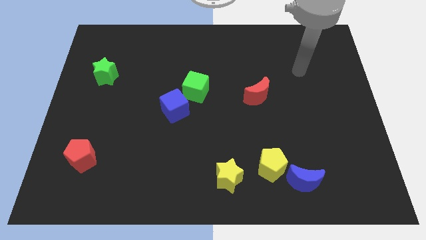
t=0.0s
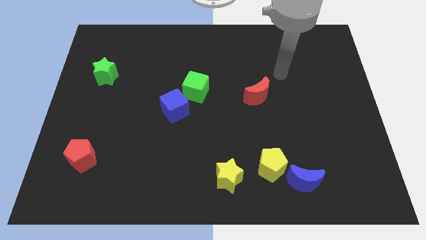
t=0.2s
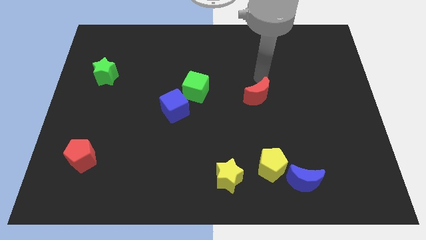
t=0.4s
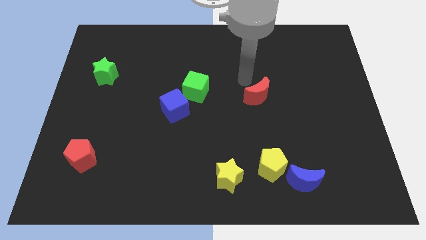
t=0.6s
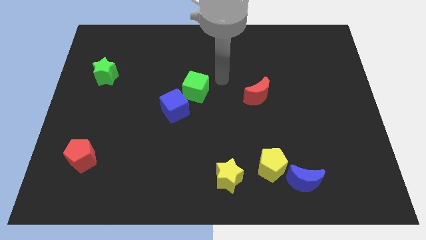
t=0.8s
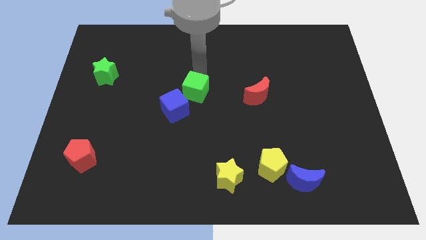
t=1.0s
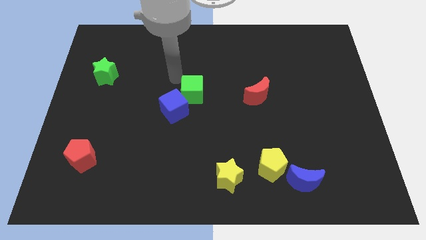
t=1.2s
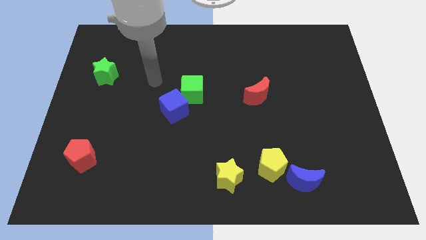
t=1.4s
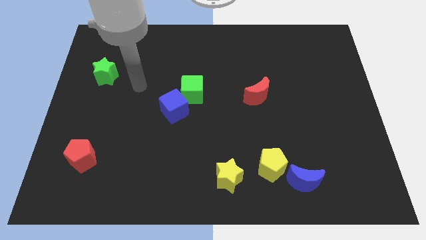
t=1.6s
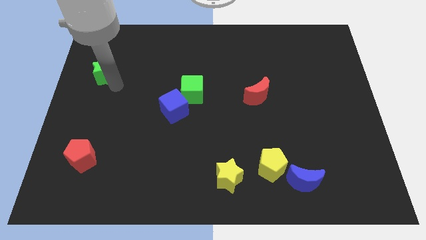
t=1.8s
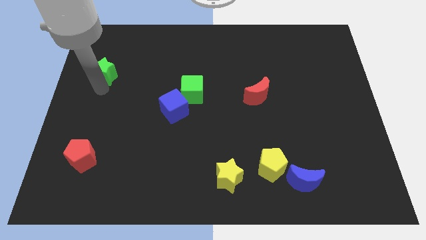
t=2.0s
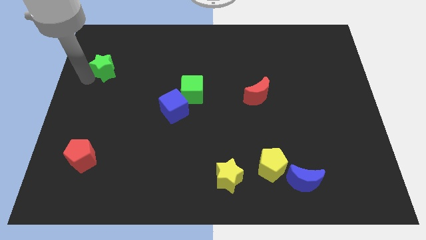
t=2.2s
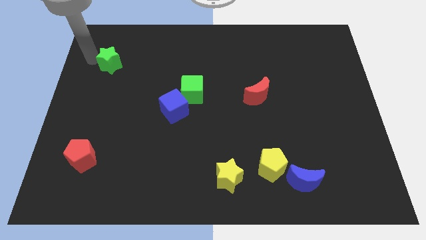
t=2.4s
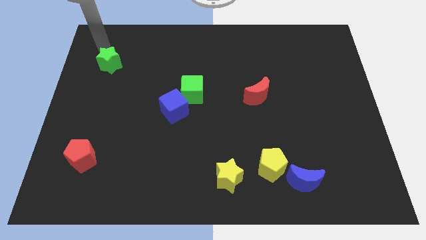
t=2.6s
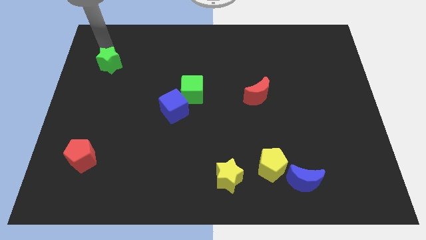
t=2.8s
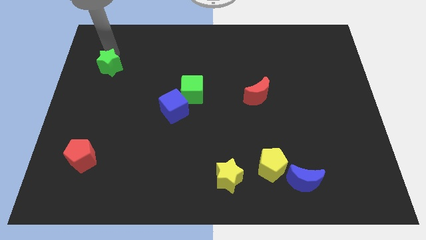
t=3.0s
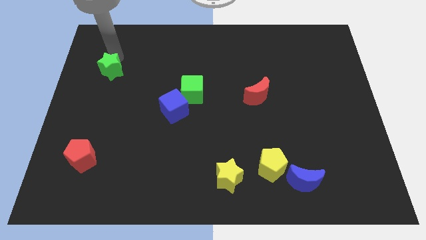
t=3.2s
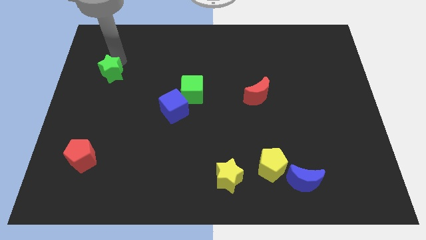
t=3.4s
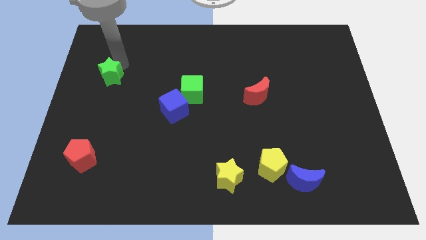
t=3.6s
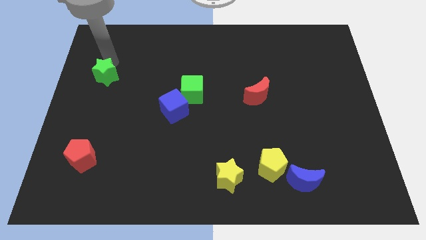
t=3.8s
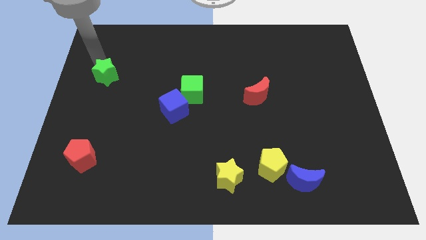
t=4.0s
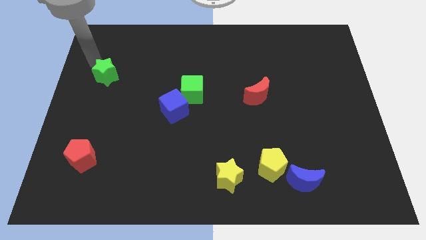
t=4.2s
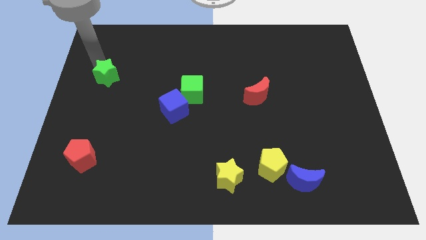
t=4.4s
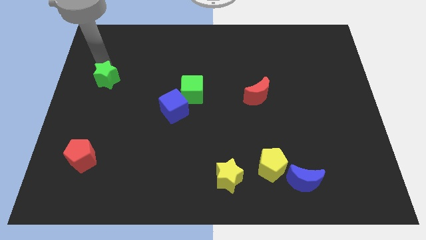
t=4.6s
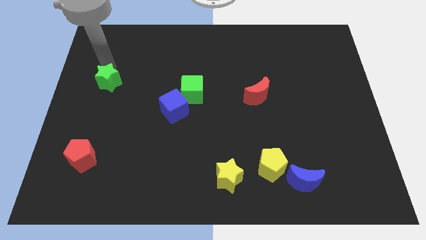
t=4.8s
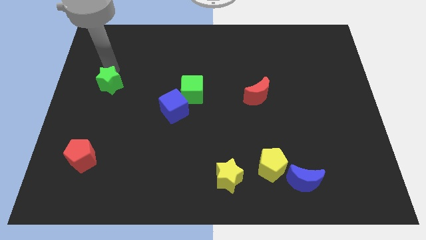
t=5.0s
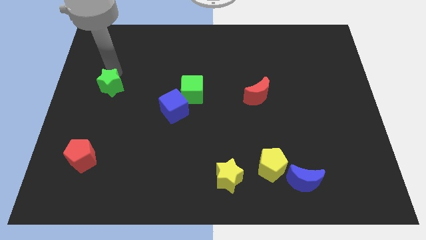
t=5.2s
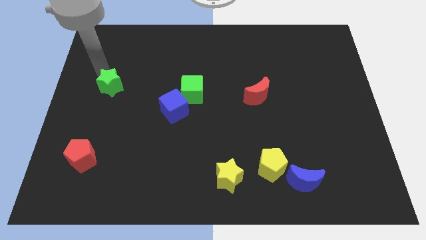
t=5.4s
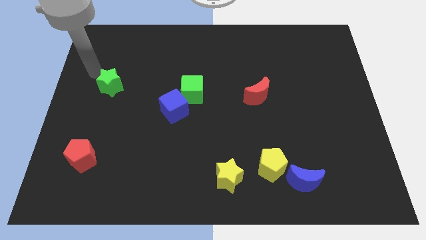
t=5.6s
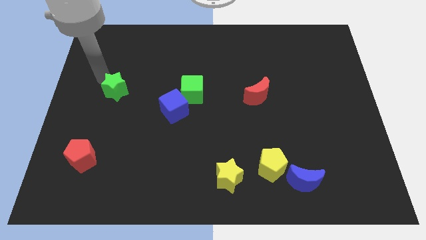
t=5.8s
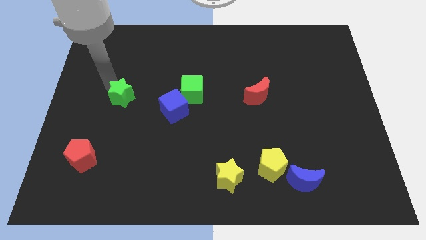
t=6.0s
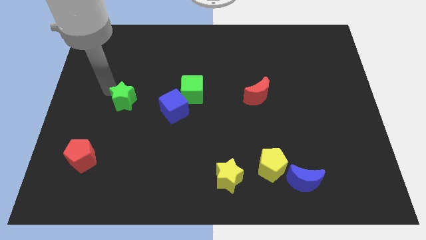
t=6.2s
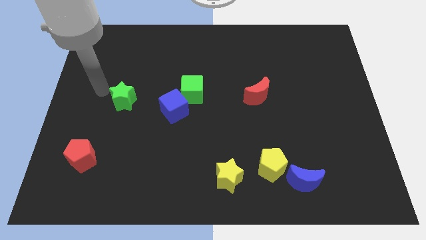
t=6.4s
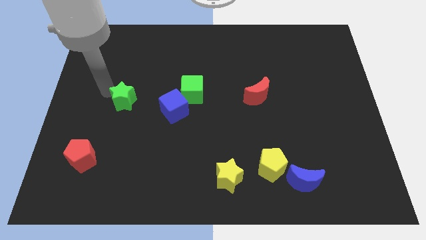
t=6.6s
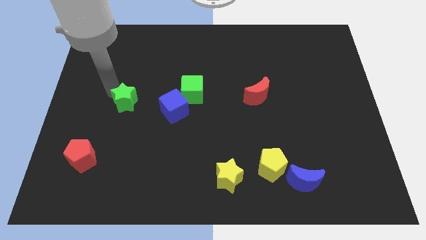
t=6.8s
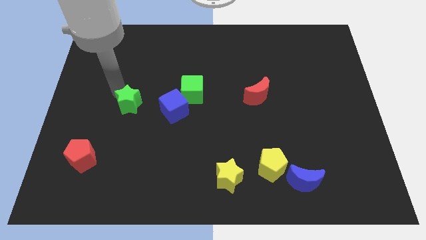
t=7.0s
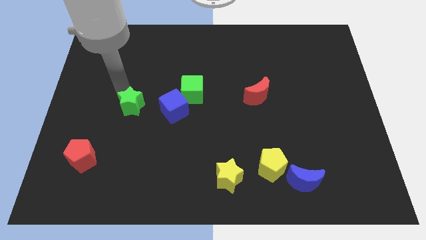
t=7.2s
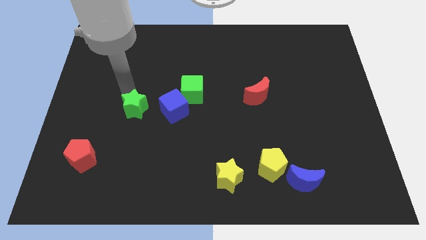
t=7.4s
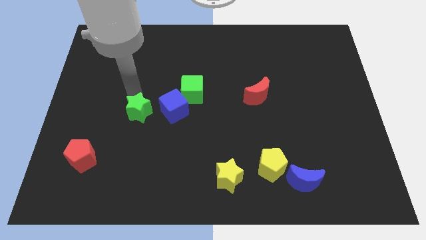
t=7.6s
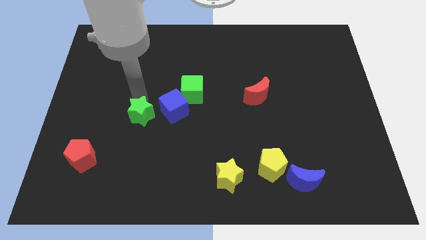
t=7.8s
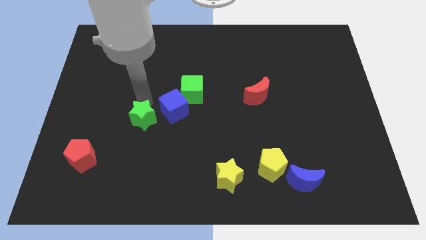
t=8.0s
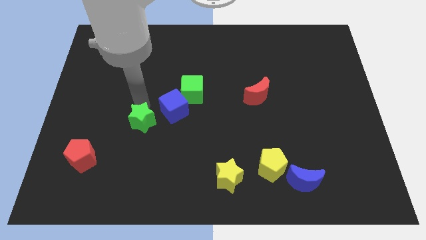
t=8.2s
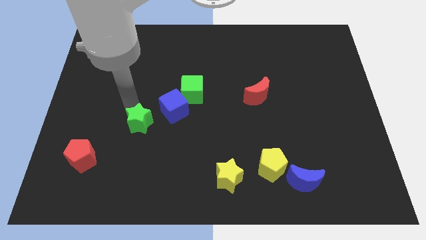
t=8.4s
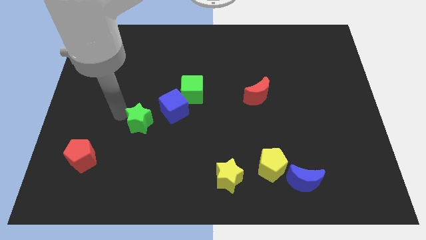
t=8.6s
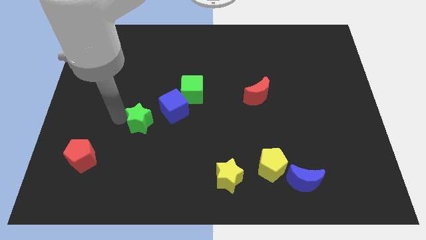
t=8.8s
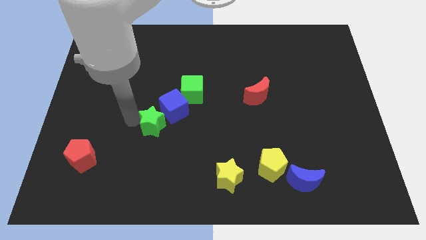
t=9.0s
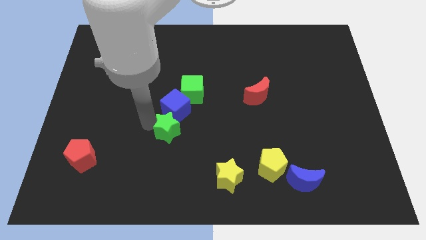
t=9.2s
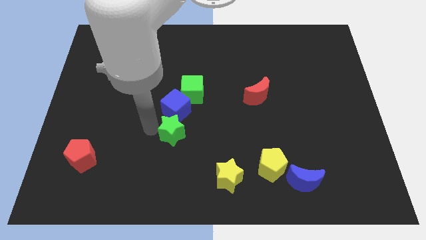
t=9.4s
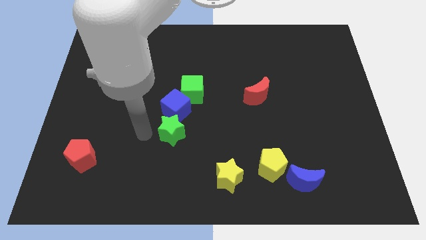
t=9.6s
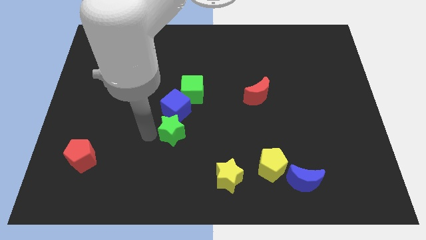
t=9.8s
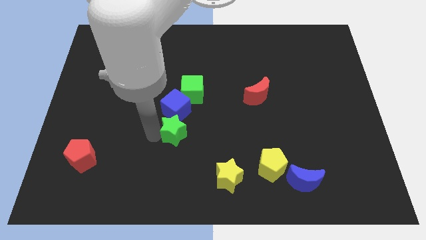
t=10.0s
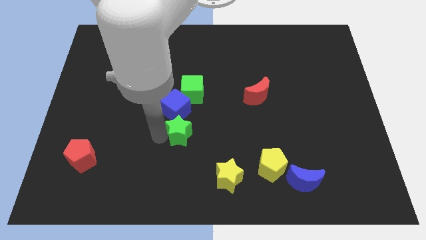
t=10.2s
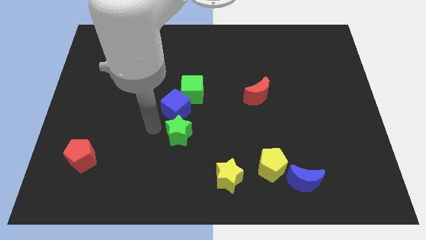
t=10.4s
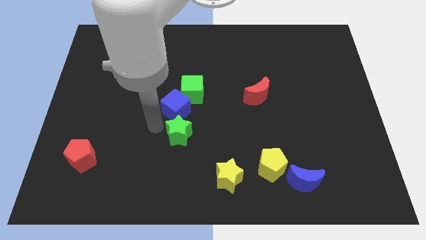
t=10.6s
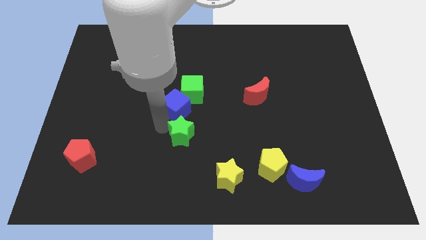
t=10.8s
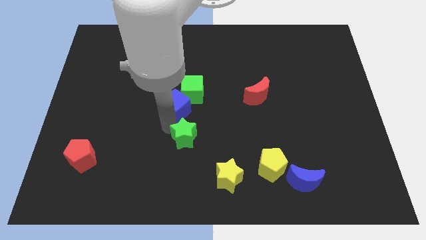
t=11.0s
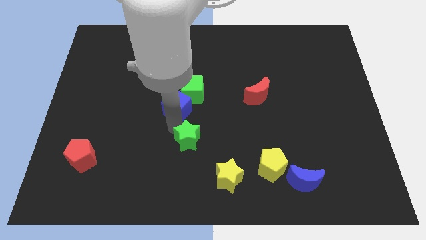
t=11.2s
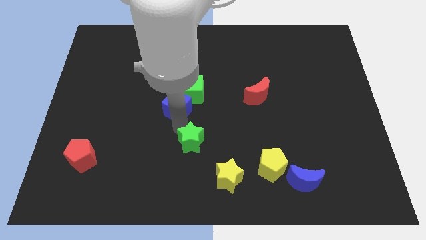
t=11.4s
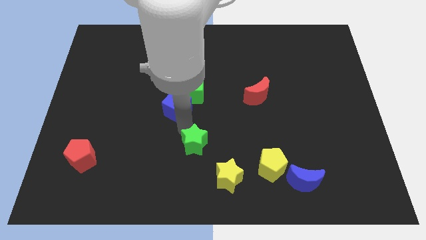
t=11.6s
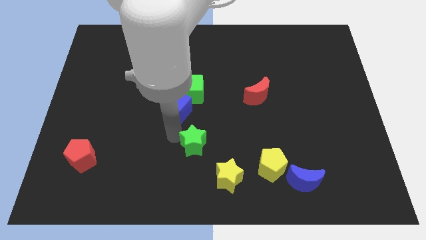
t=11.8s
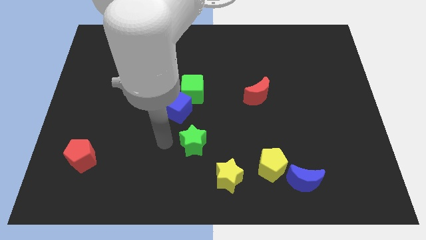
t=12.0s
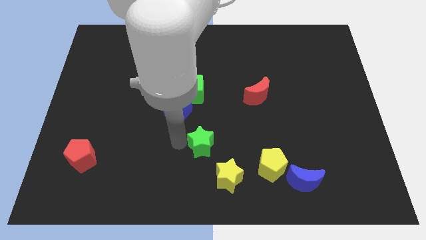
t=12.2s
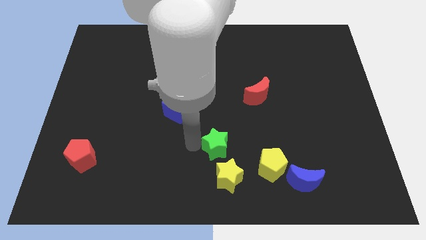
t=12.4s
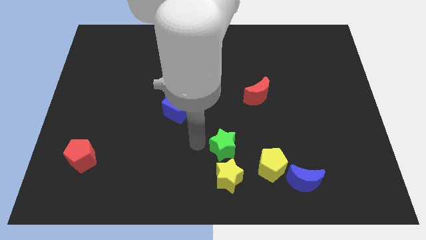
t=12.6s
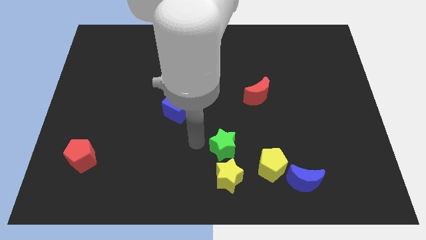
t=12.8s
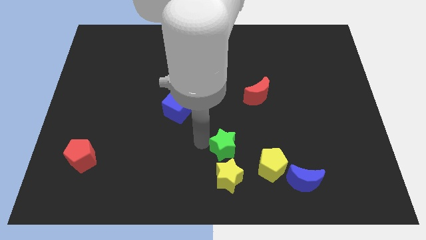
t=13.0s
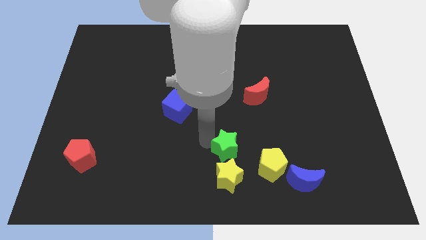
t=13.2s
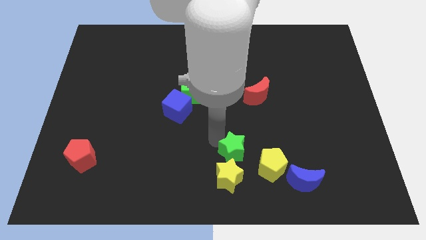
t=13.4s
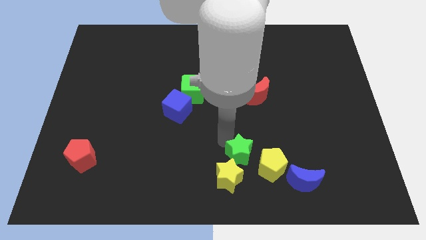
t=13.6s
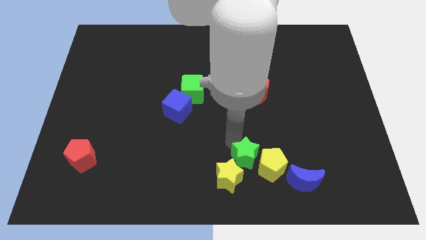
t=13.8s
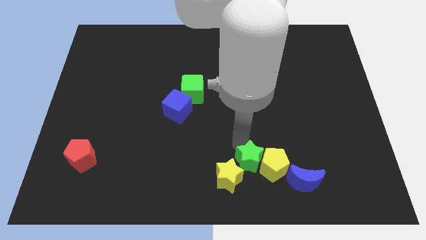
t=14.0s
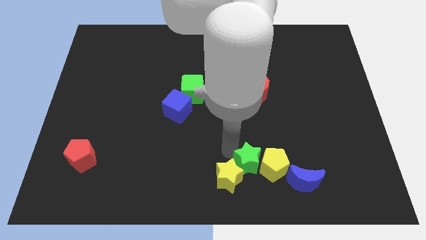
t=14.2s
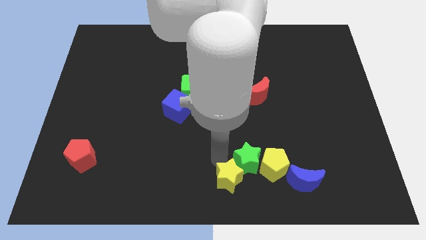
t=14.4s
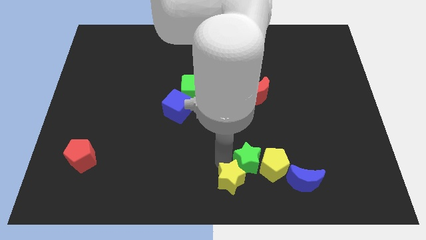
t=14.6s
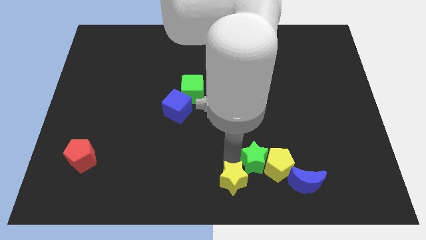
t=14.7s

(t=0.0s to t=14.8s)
push the green star to the top left side of the blue moon

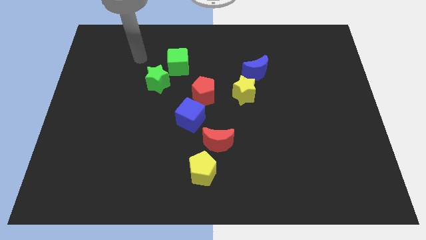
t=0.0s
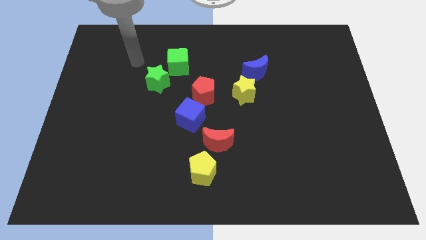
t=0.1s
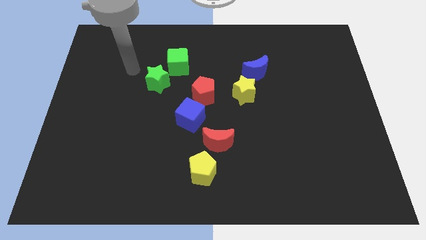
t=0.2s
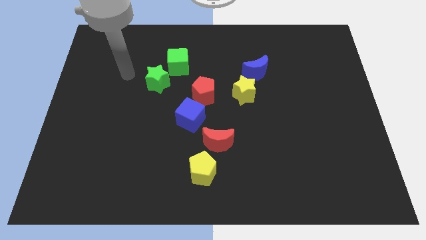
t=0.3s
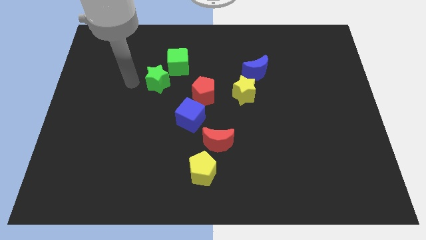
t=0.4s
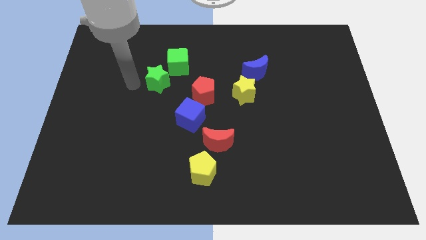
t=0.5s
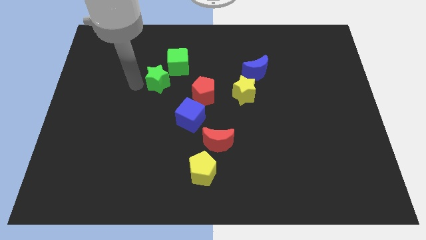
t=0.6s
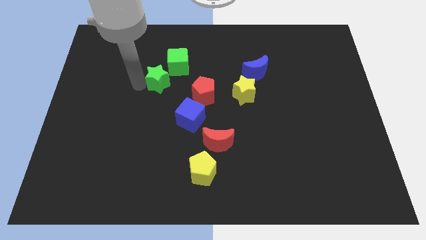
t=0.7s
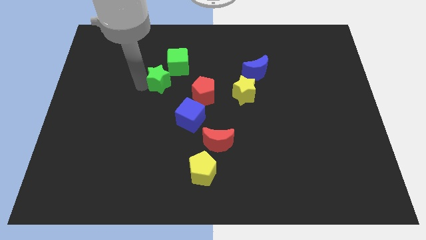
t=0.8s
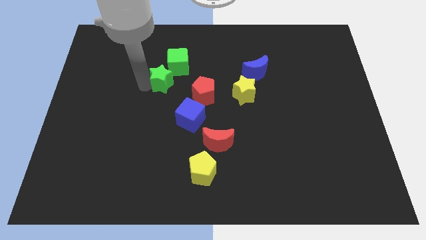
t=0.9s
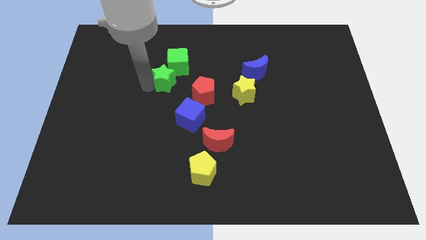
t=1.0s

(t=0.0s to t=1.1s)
move the green star diagonally up and to the left of the red pentagon
